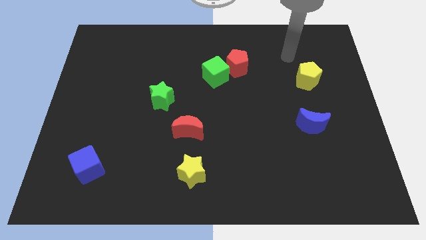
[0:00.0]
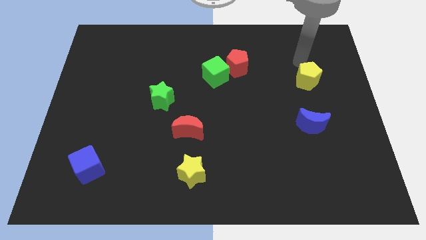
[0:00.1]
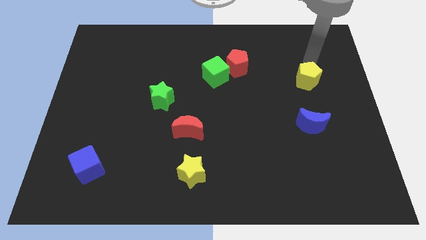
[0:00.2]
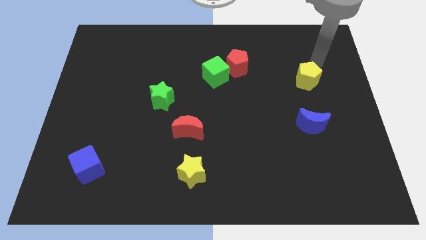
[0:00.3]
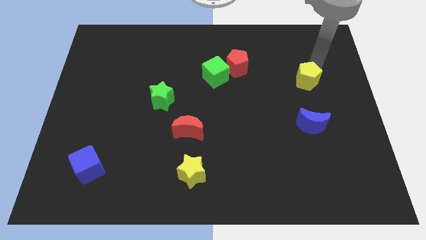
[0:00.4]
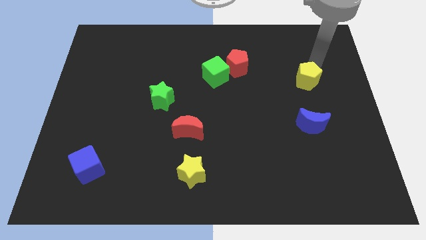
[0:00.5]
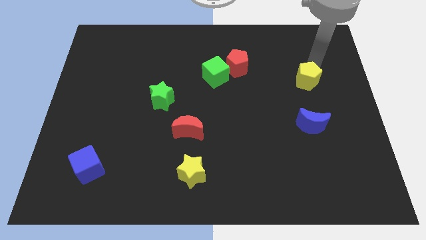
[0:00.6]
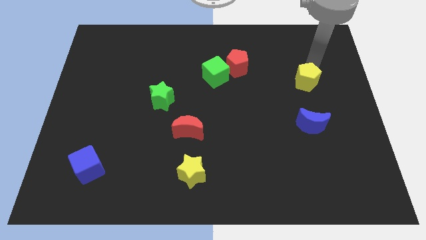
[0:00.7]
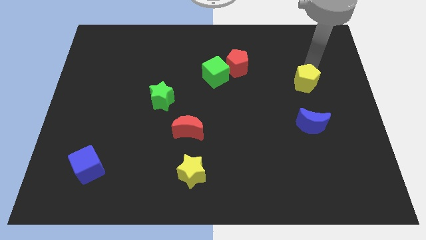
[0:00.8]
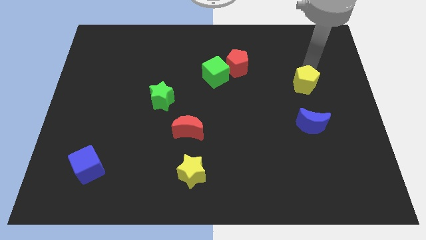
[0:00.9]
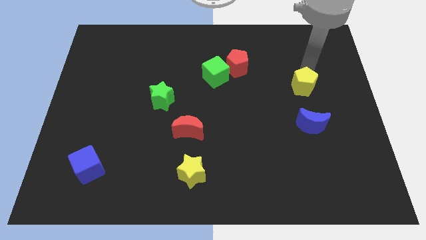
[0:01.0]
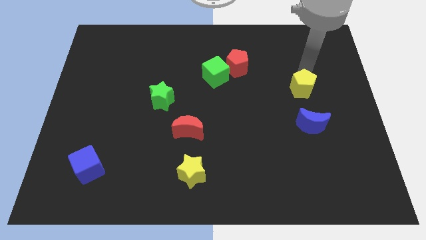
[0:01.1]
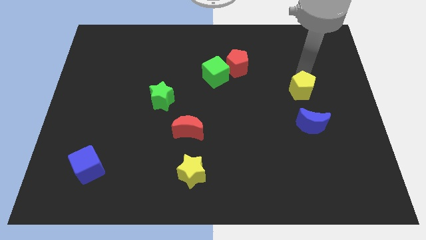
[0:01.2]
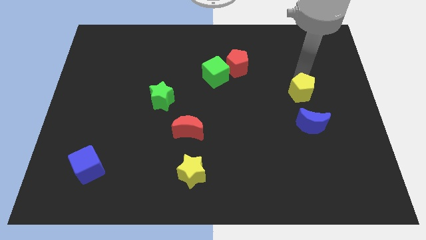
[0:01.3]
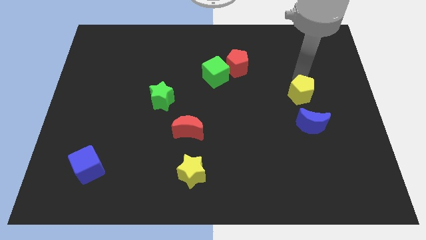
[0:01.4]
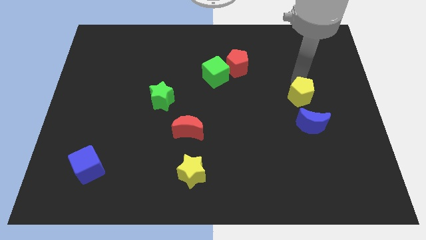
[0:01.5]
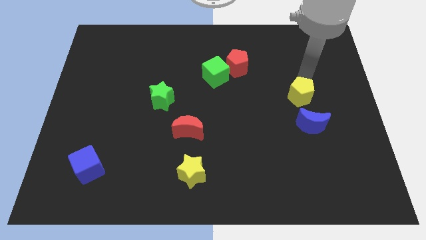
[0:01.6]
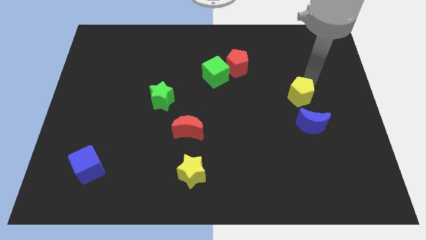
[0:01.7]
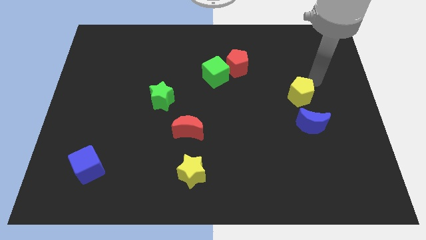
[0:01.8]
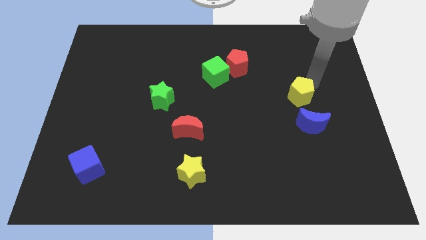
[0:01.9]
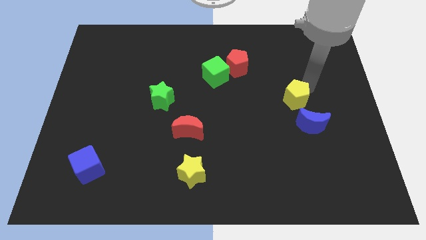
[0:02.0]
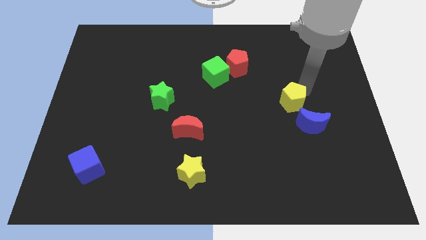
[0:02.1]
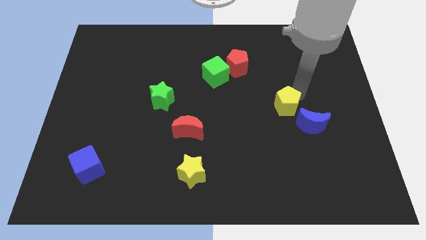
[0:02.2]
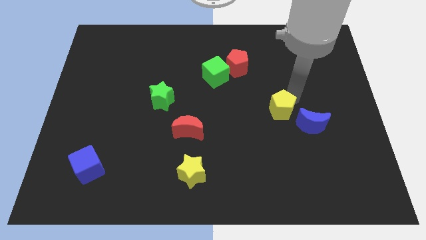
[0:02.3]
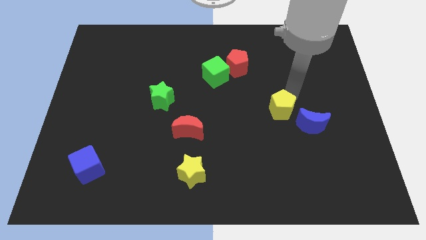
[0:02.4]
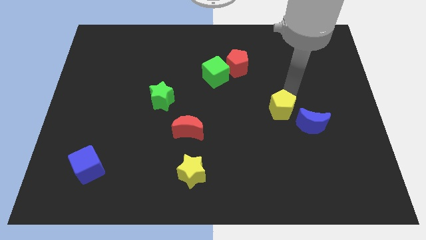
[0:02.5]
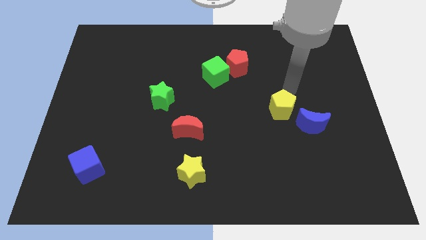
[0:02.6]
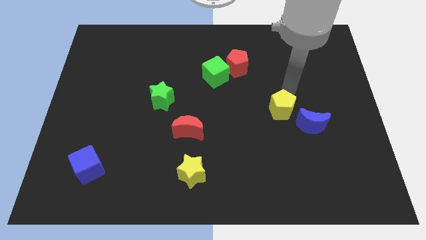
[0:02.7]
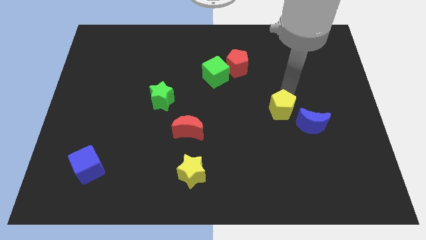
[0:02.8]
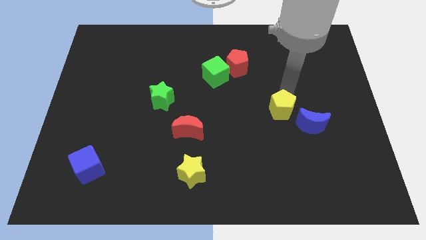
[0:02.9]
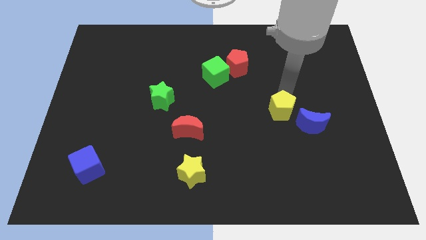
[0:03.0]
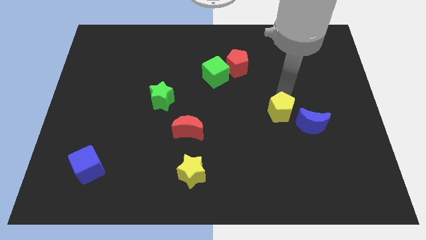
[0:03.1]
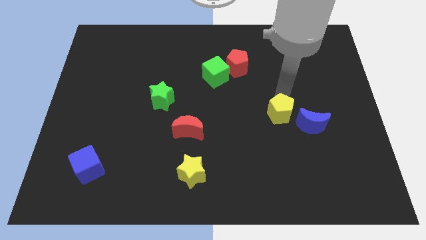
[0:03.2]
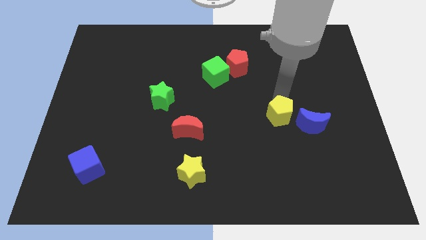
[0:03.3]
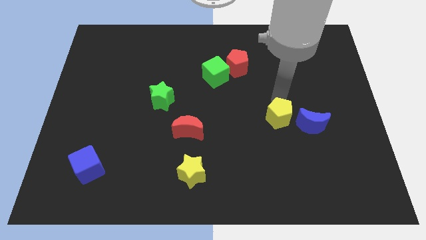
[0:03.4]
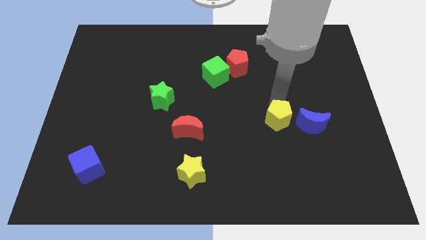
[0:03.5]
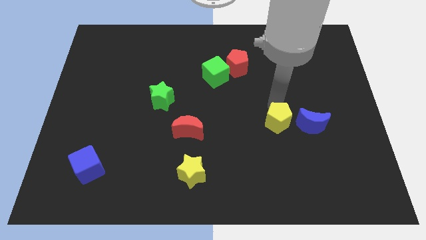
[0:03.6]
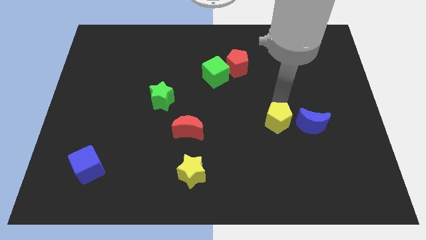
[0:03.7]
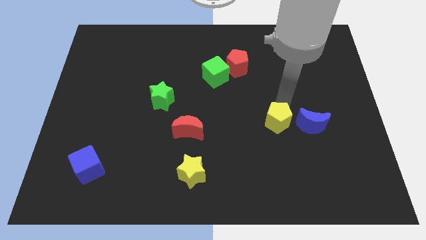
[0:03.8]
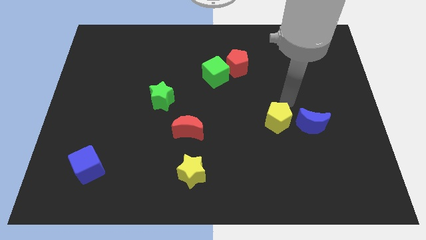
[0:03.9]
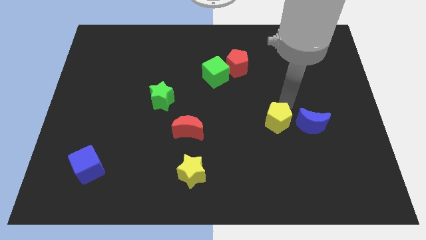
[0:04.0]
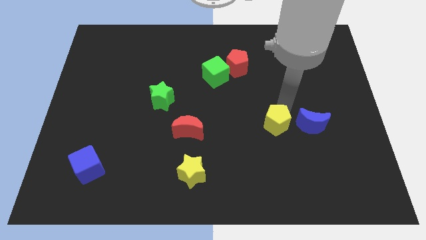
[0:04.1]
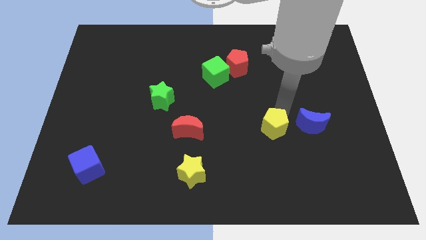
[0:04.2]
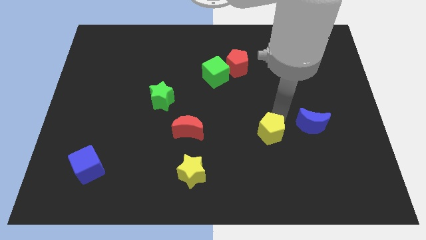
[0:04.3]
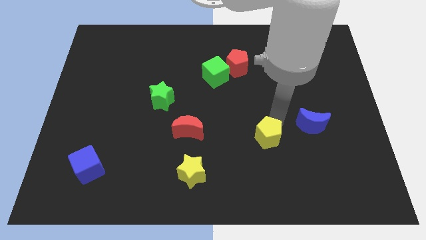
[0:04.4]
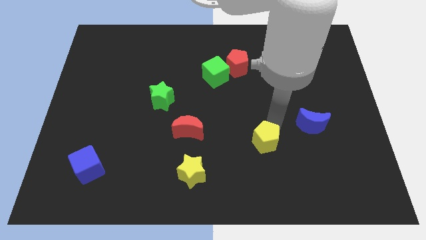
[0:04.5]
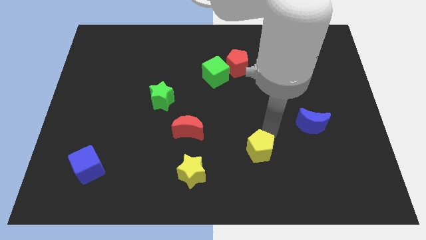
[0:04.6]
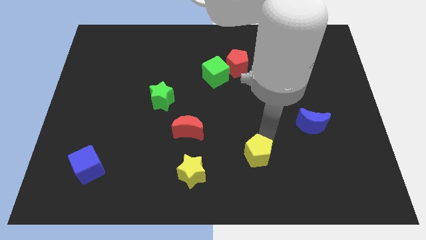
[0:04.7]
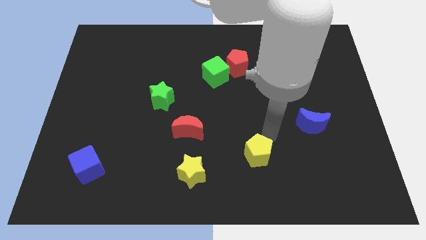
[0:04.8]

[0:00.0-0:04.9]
slide the yellow pentagon to the right of the yellow star

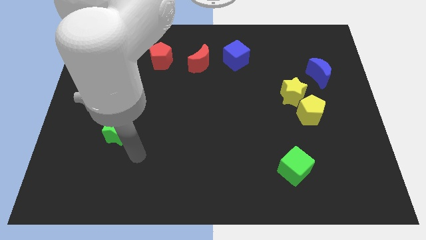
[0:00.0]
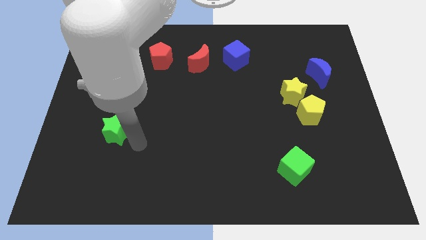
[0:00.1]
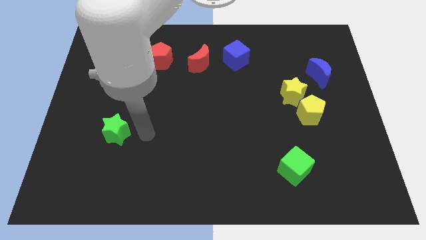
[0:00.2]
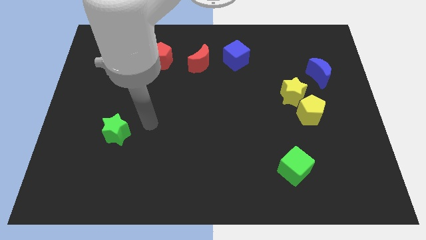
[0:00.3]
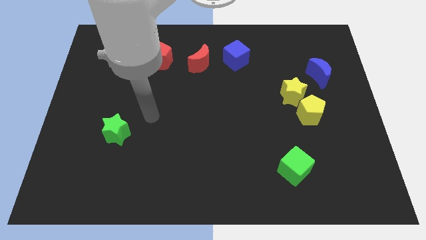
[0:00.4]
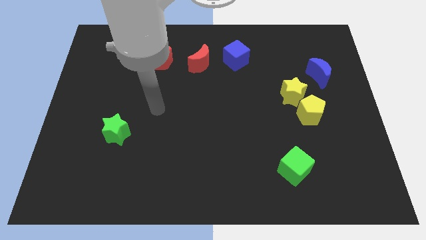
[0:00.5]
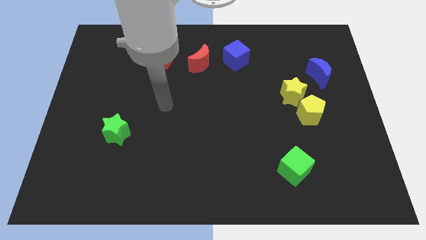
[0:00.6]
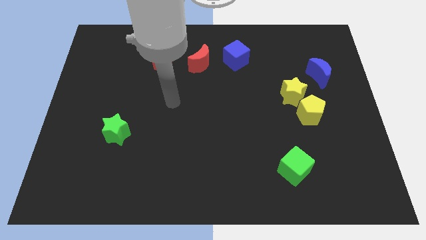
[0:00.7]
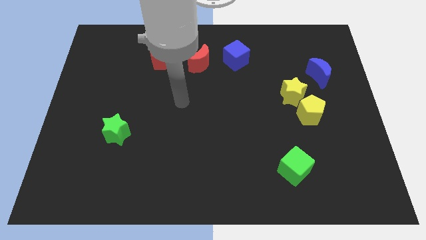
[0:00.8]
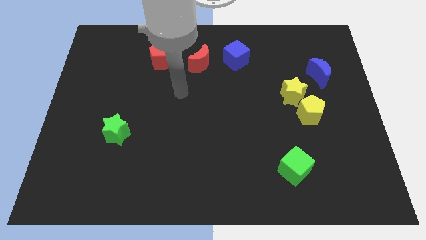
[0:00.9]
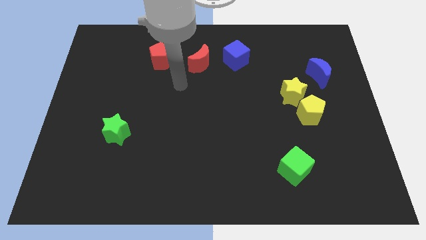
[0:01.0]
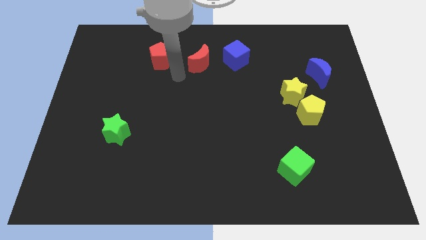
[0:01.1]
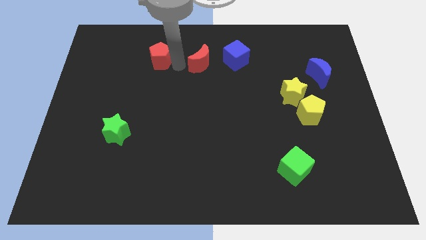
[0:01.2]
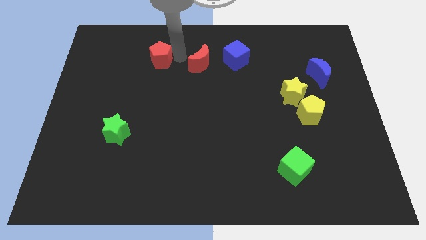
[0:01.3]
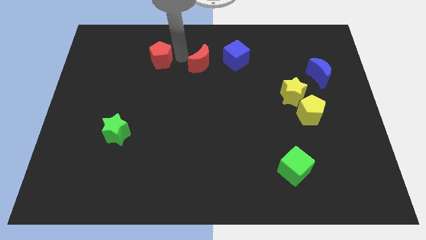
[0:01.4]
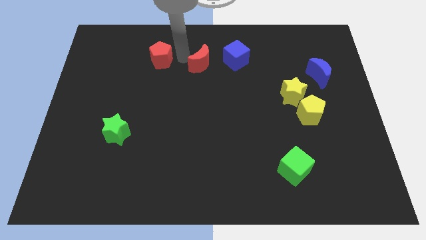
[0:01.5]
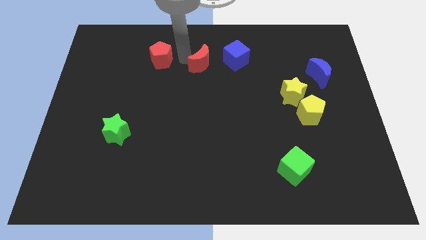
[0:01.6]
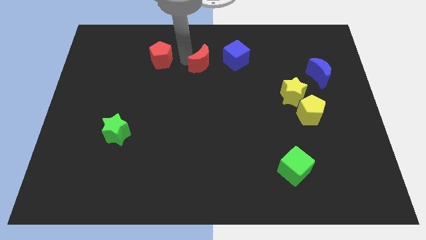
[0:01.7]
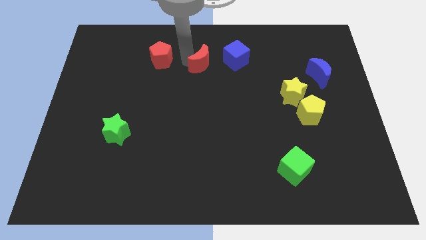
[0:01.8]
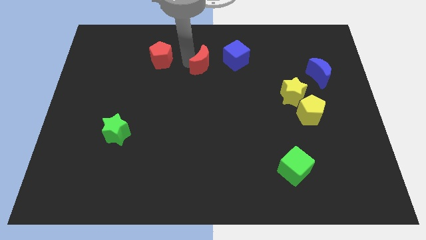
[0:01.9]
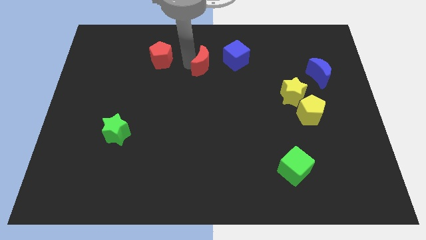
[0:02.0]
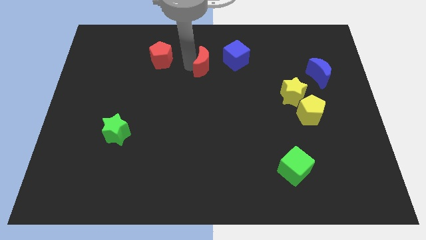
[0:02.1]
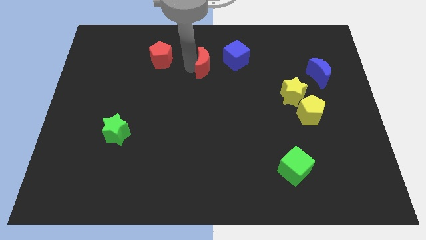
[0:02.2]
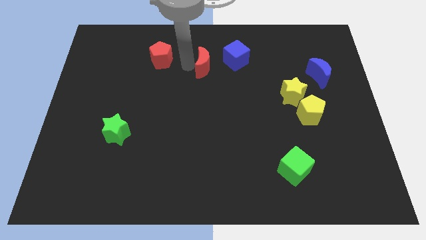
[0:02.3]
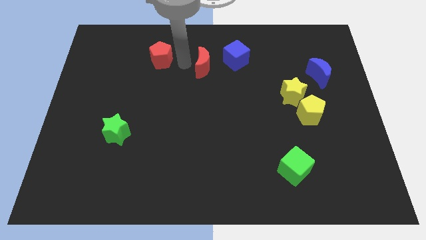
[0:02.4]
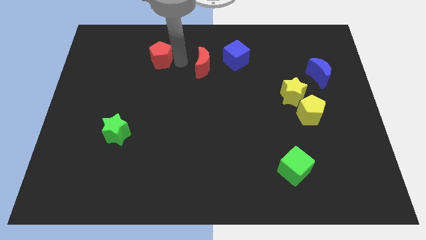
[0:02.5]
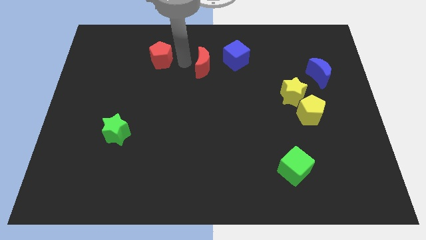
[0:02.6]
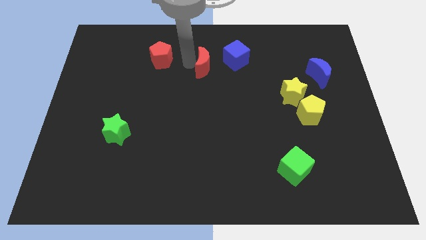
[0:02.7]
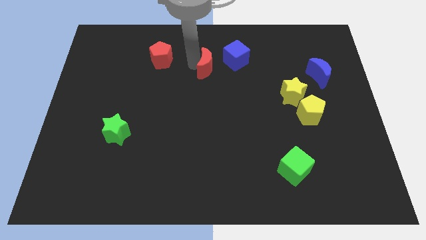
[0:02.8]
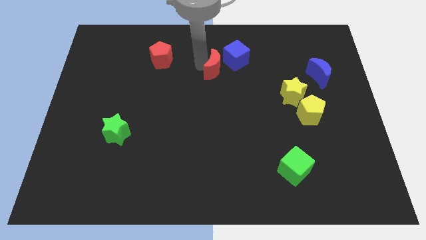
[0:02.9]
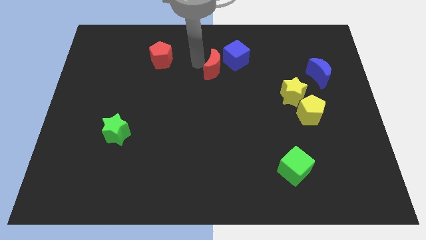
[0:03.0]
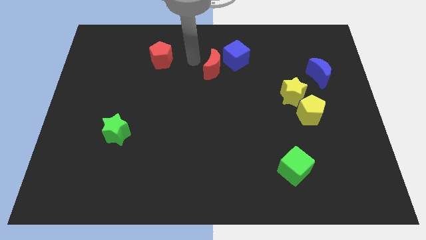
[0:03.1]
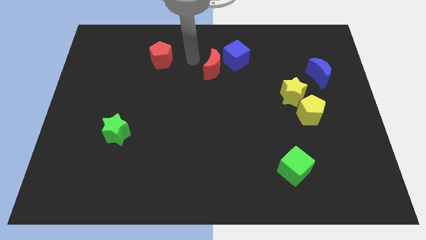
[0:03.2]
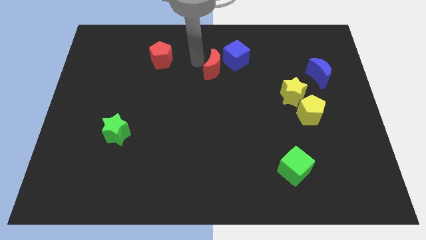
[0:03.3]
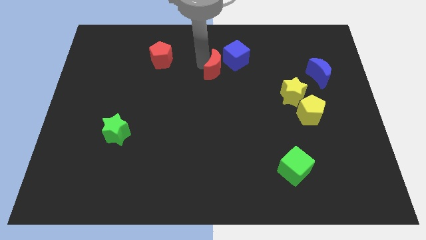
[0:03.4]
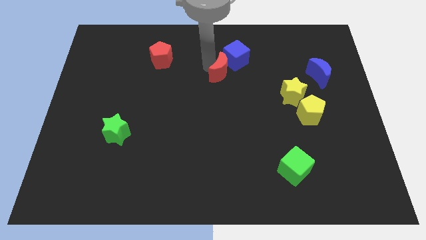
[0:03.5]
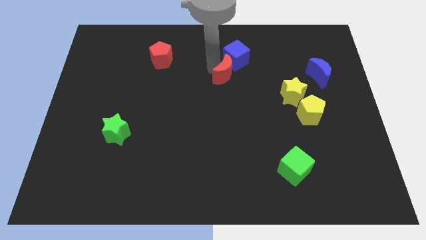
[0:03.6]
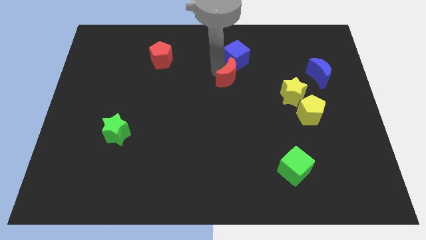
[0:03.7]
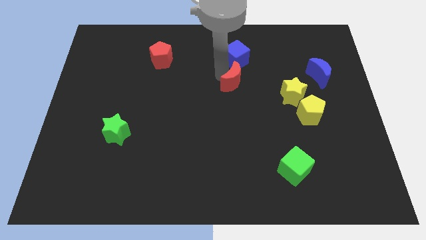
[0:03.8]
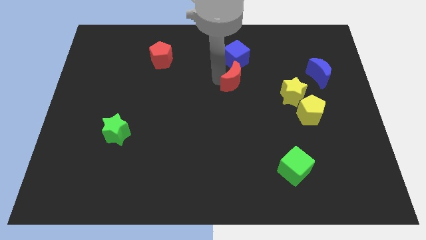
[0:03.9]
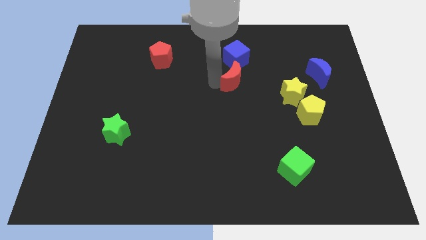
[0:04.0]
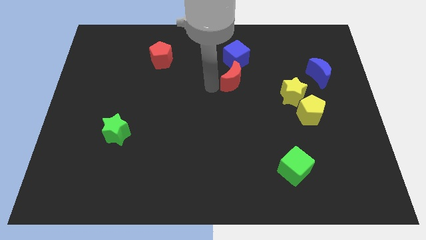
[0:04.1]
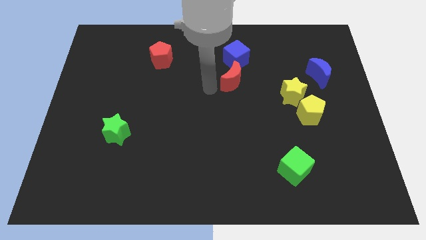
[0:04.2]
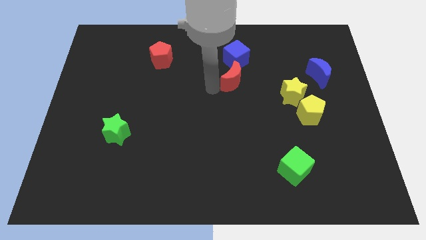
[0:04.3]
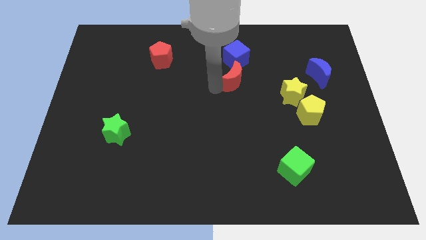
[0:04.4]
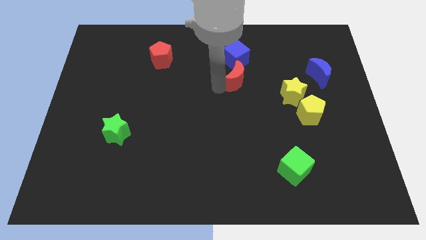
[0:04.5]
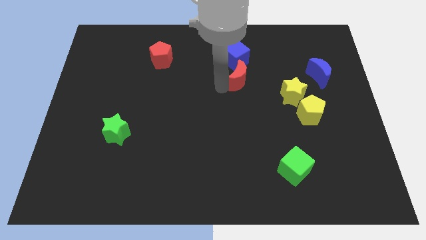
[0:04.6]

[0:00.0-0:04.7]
put the red moon to the bottom right side of the blue cube
